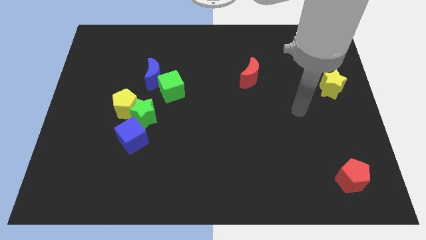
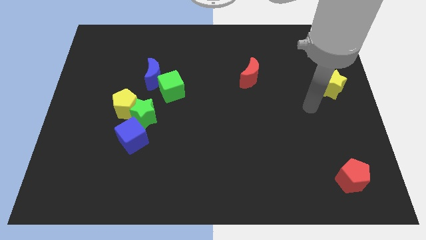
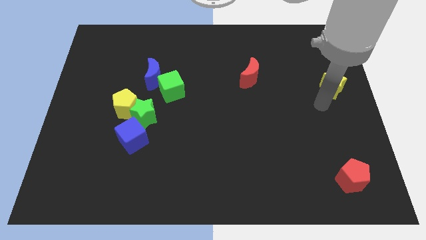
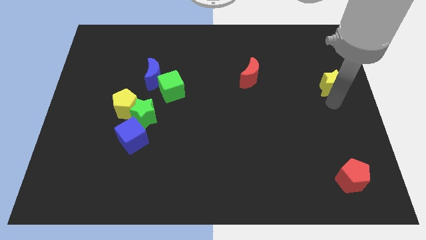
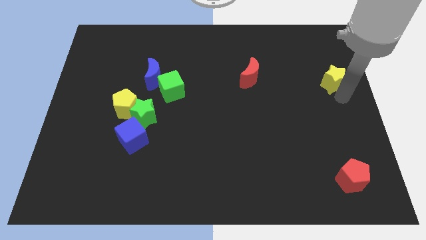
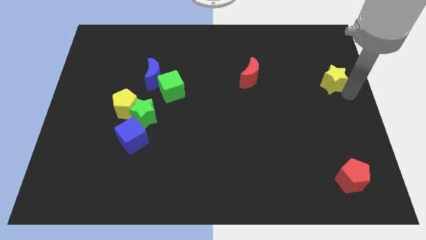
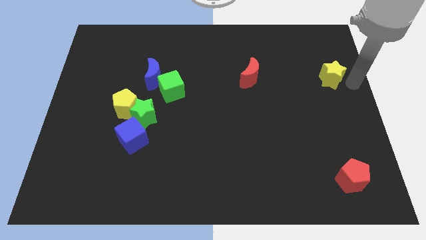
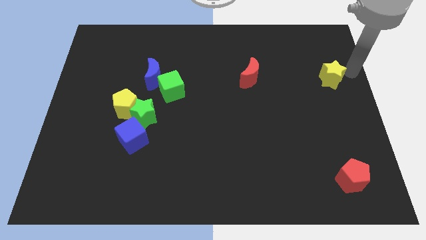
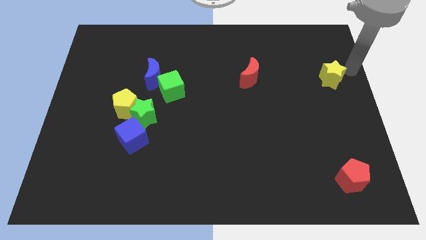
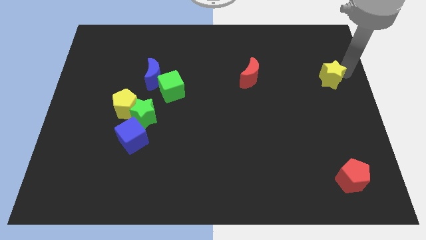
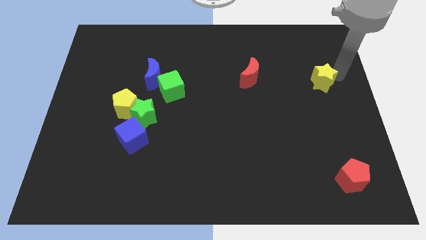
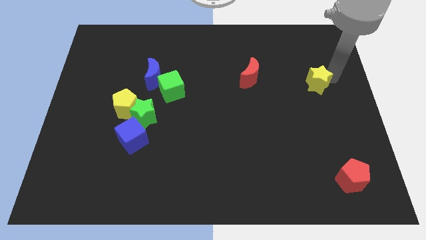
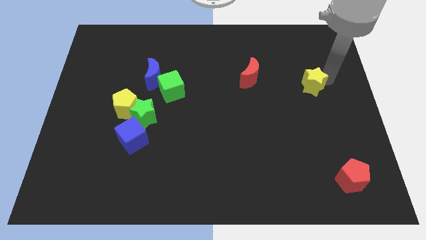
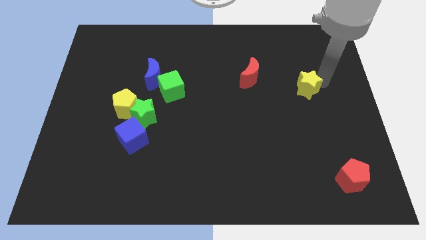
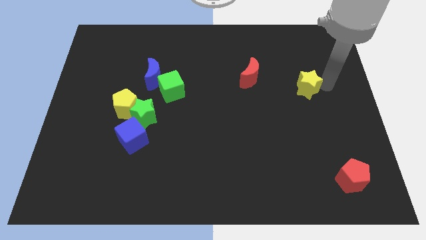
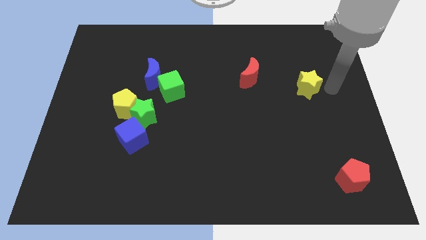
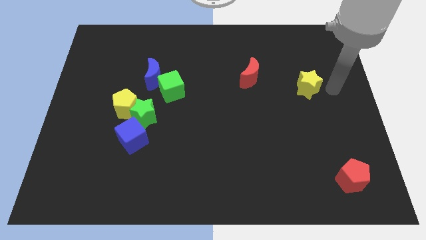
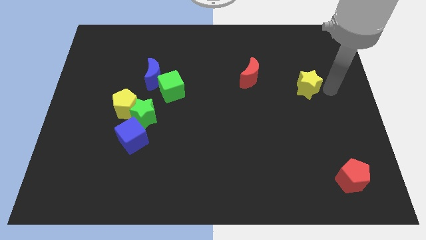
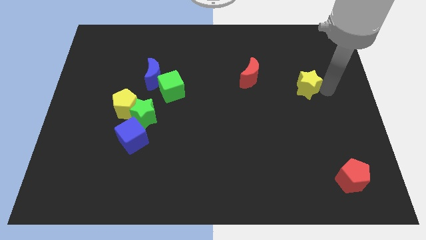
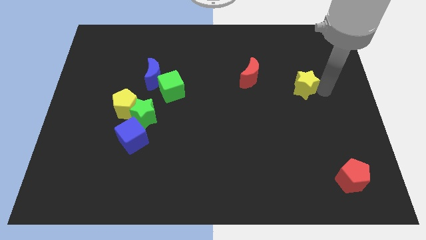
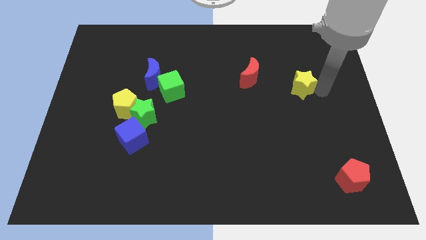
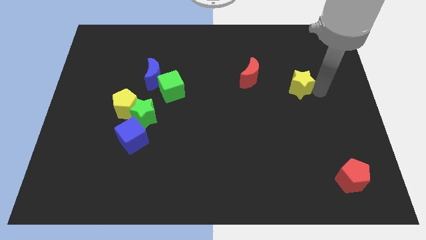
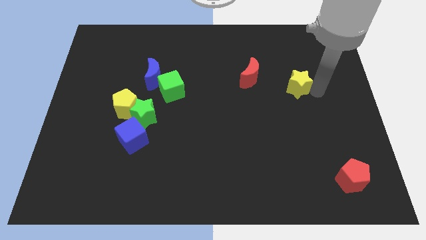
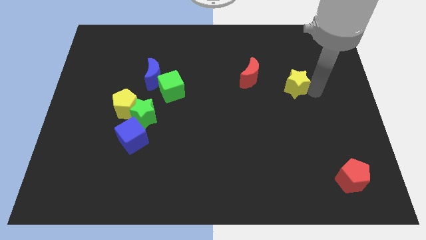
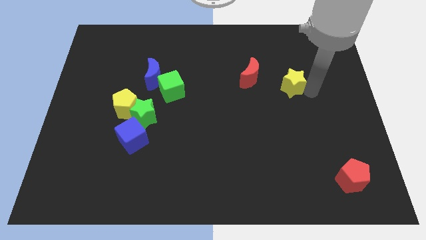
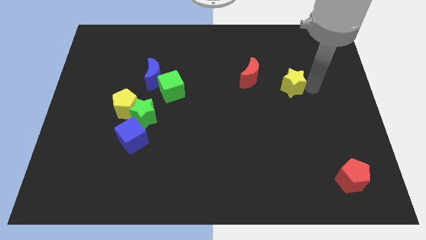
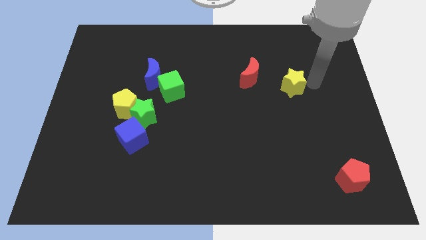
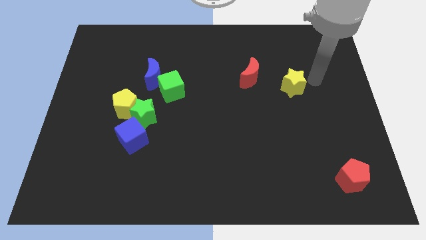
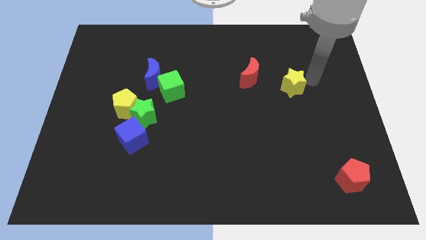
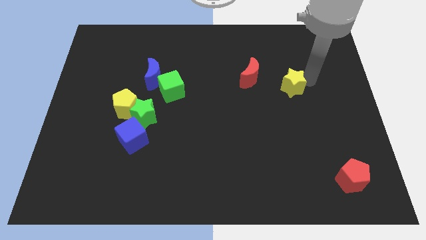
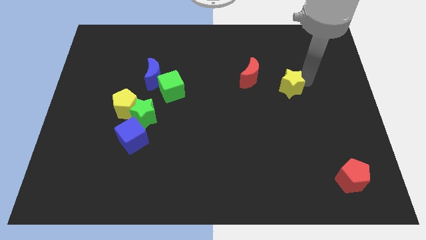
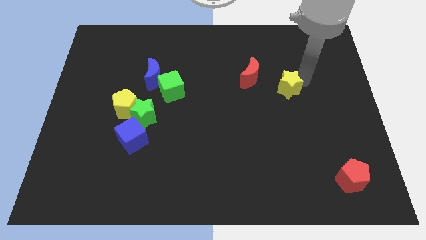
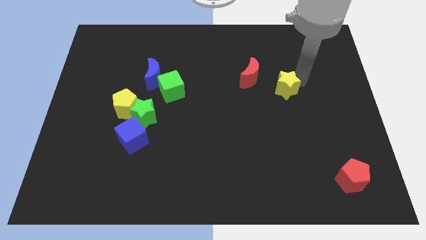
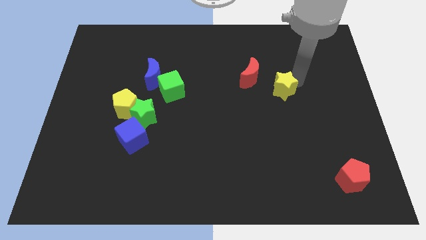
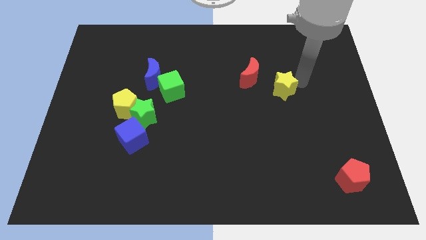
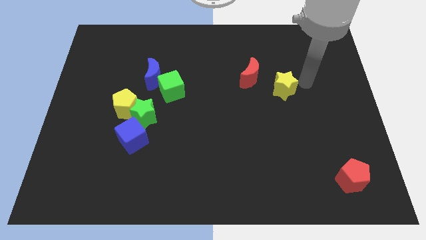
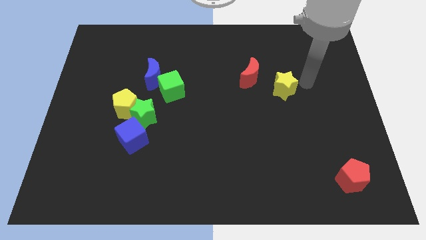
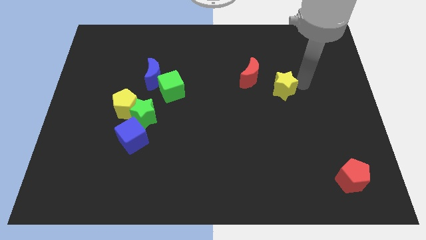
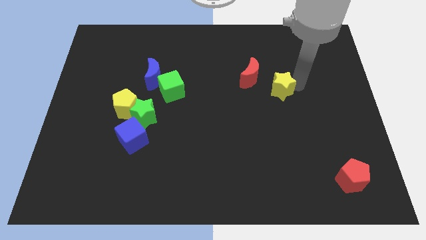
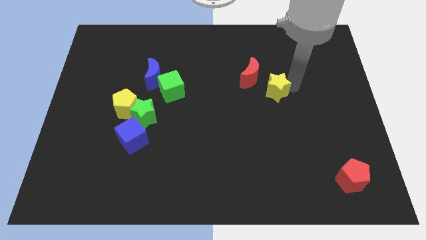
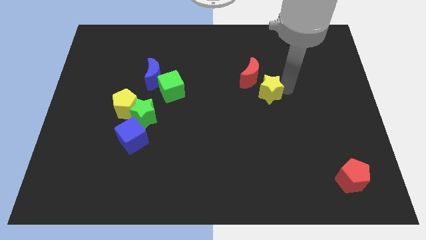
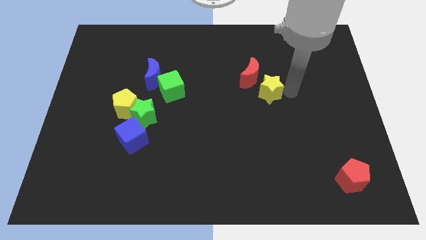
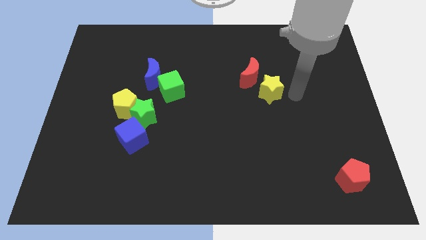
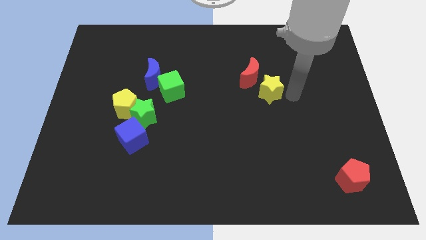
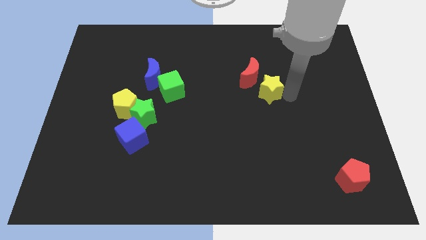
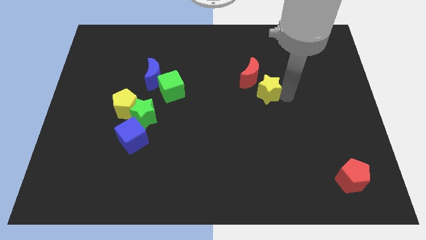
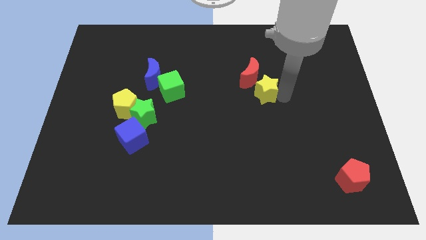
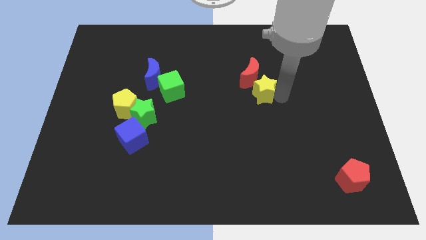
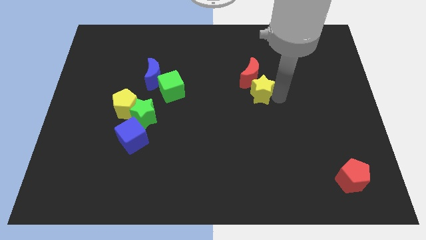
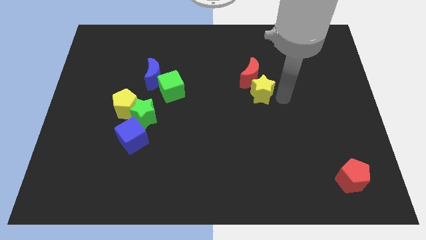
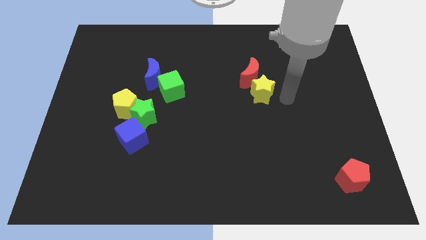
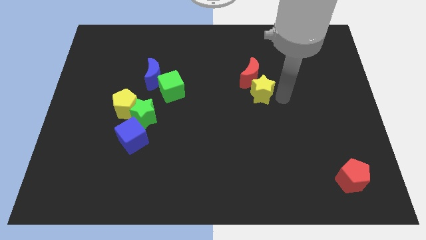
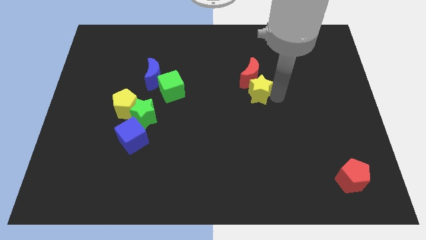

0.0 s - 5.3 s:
move the yellow star to the bottom left of the red moon

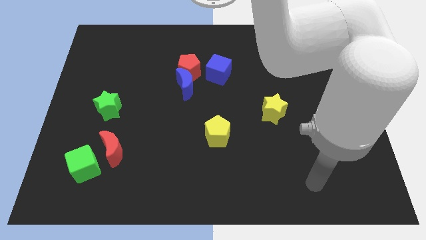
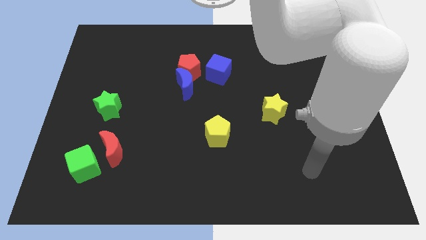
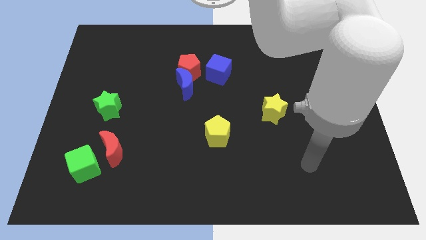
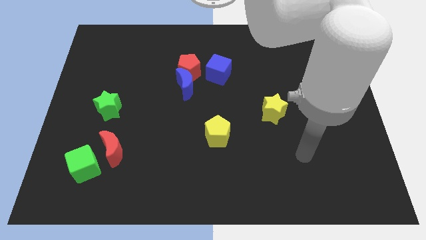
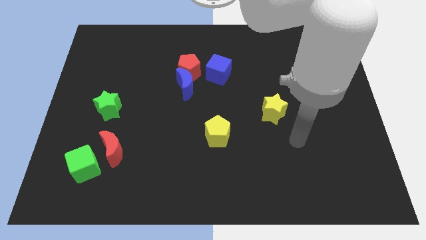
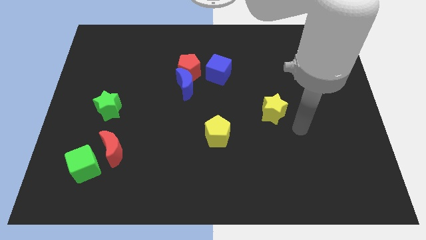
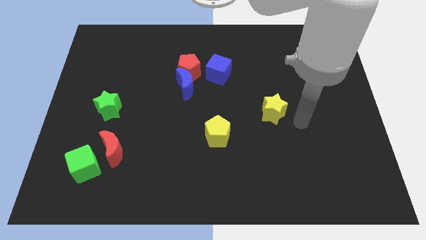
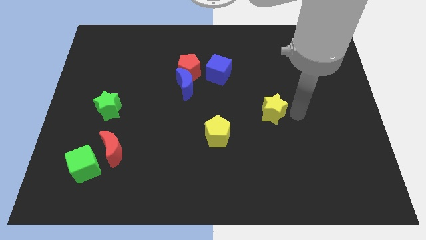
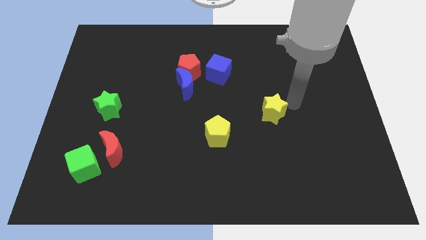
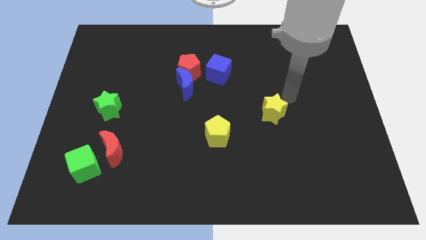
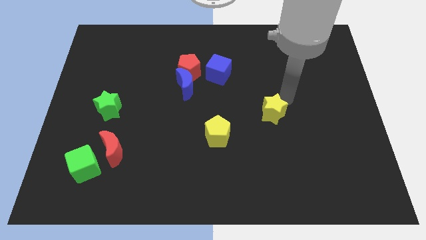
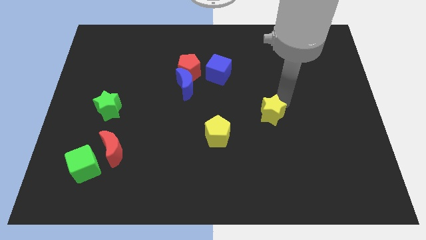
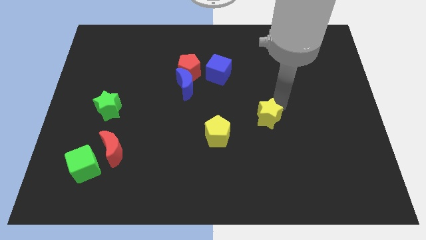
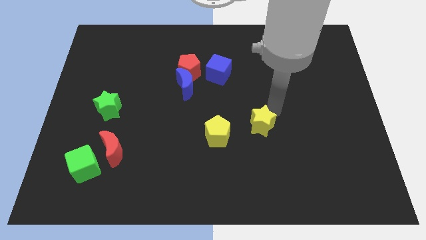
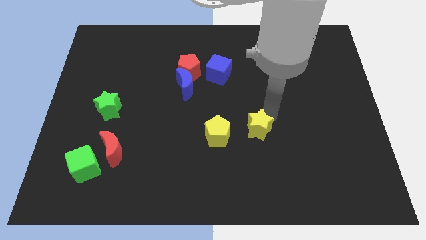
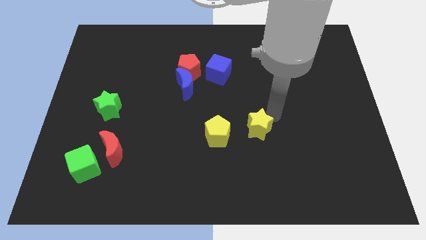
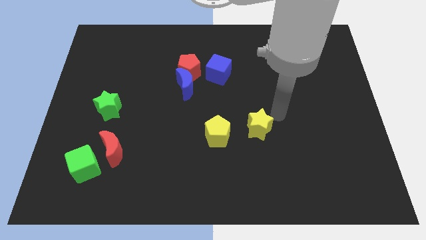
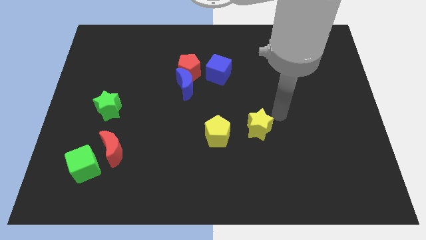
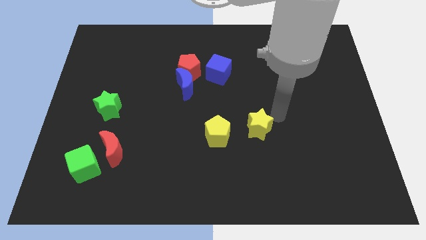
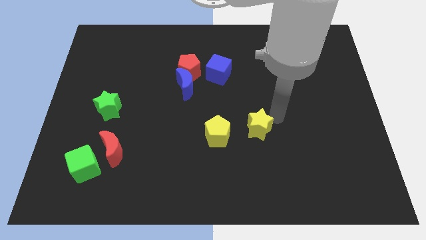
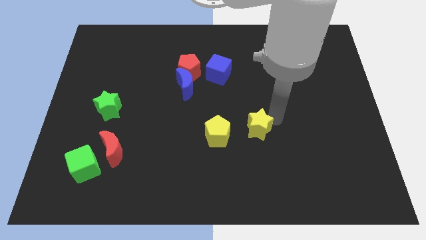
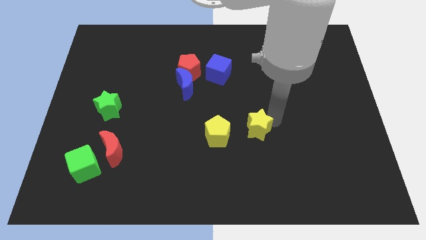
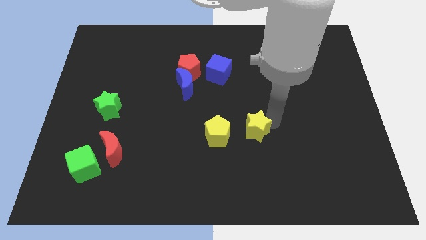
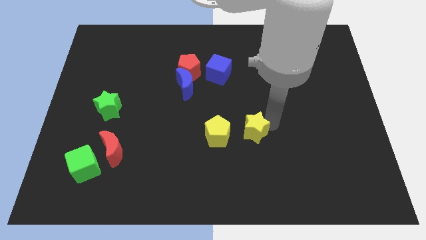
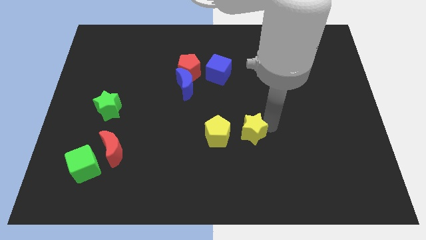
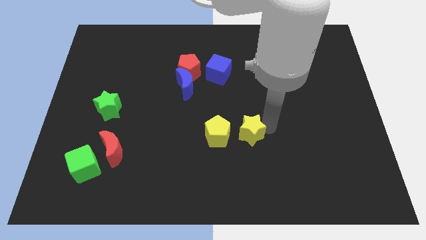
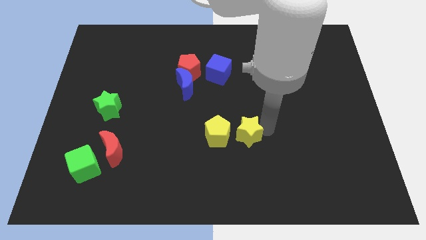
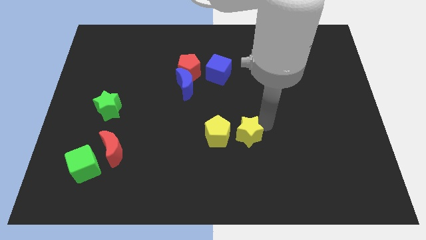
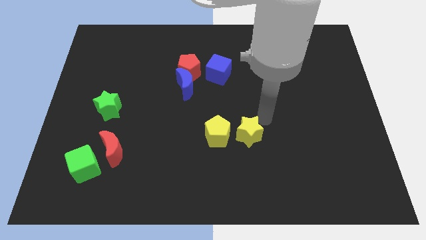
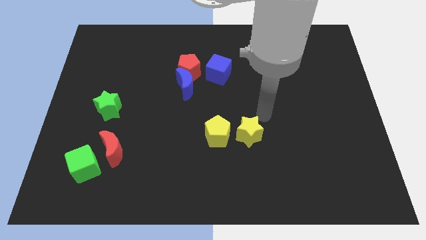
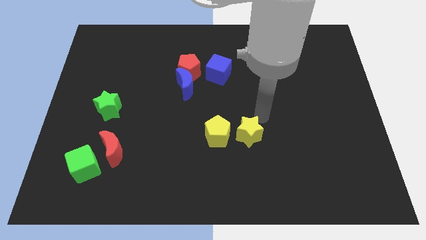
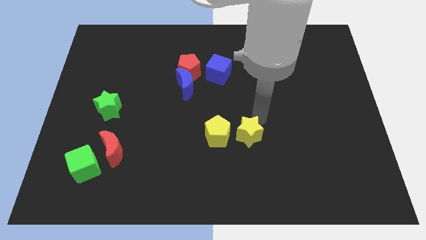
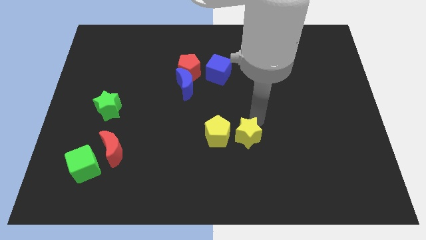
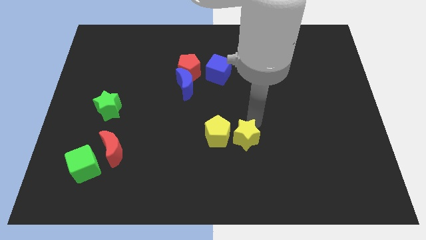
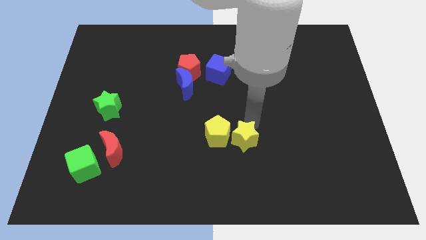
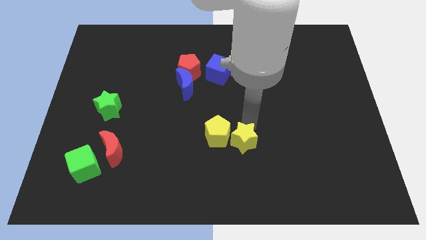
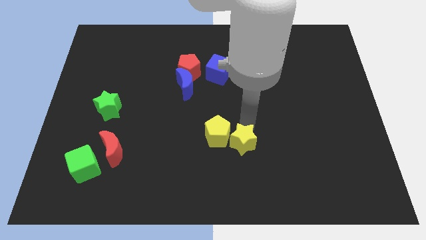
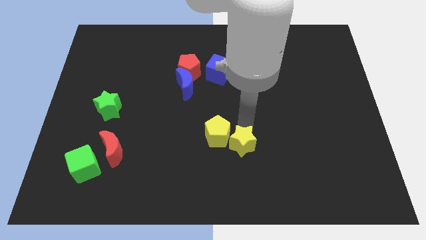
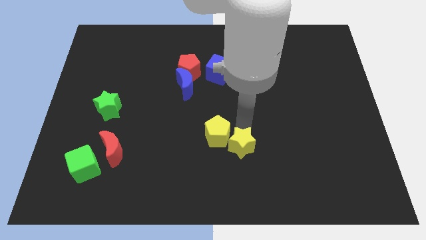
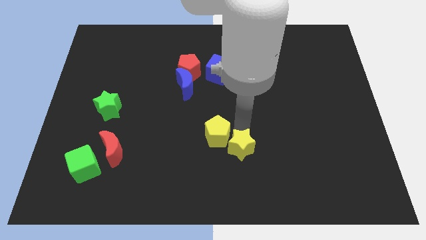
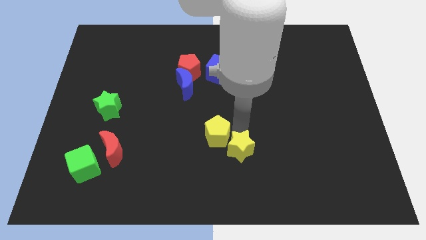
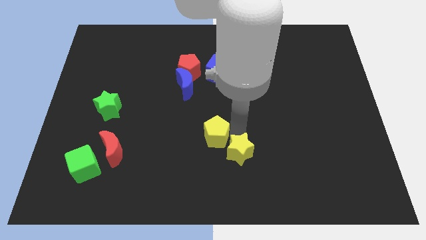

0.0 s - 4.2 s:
push the yellow star to the bottom of the yellow pentagon
